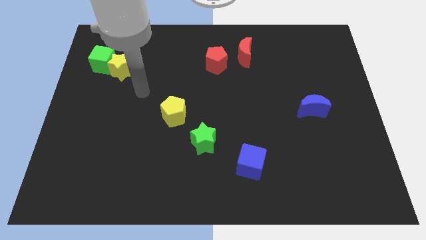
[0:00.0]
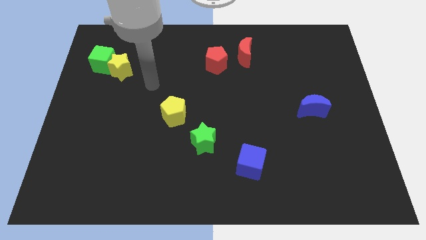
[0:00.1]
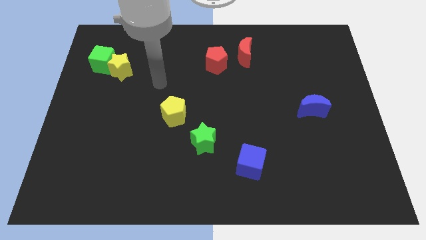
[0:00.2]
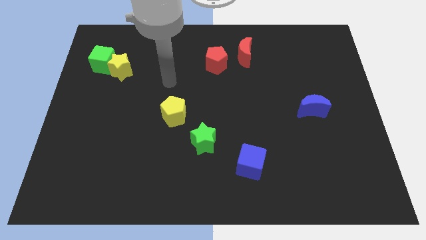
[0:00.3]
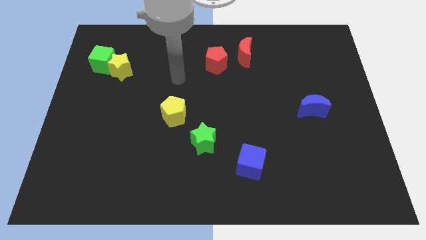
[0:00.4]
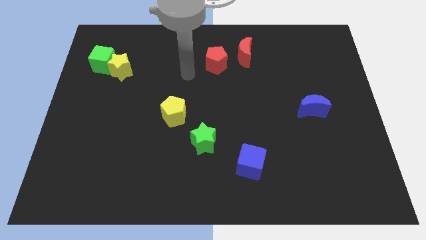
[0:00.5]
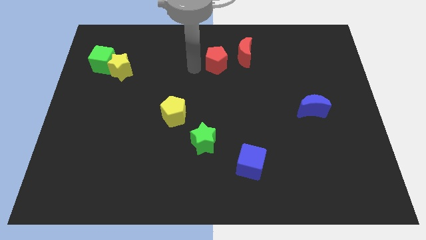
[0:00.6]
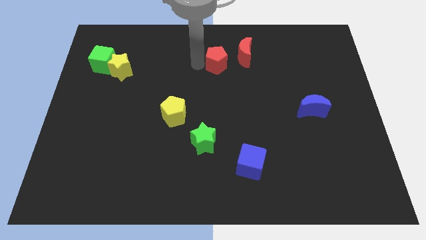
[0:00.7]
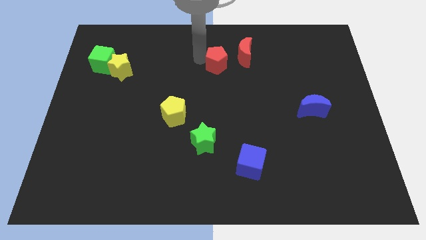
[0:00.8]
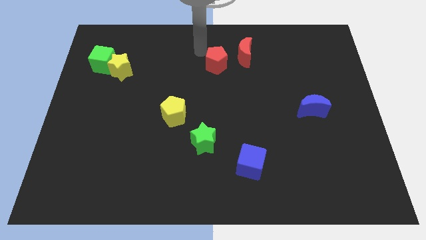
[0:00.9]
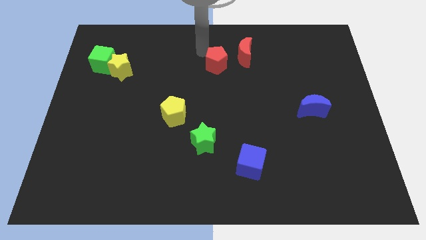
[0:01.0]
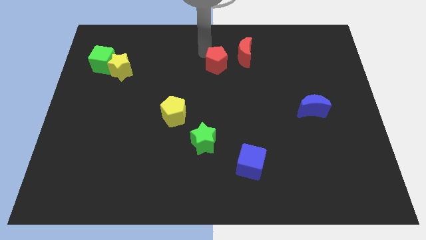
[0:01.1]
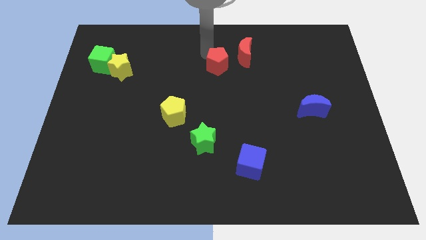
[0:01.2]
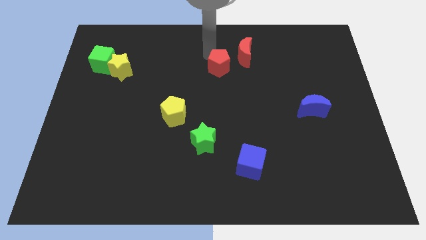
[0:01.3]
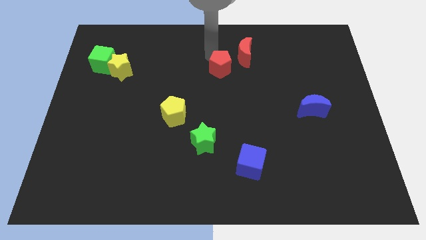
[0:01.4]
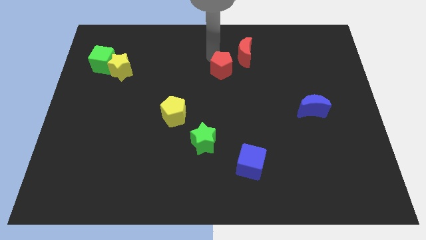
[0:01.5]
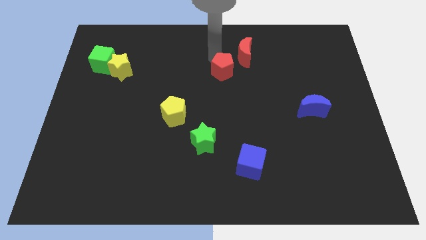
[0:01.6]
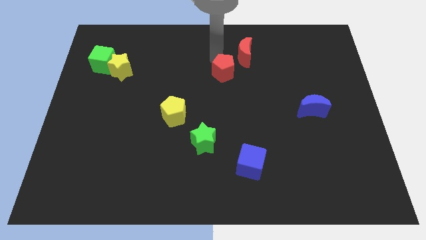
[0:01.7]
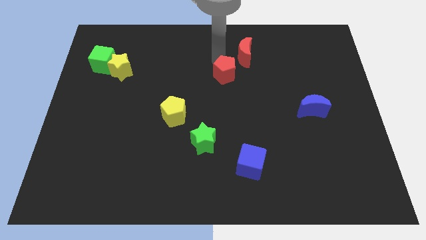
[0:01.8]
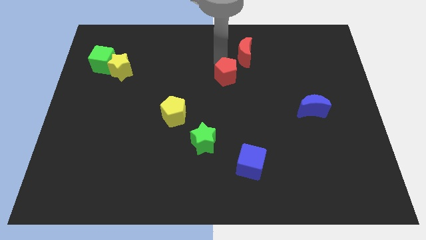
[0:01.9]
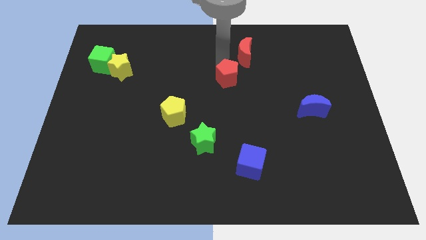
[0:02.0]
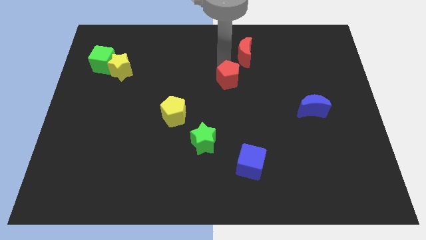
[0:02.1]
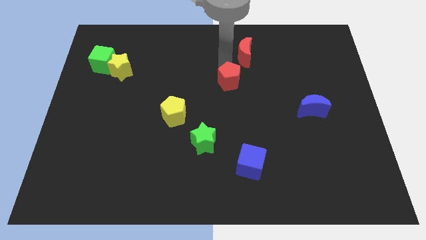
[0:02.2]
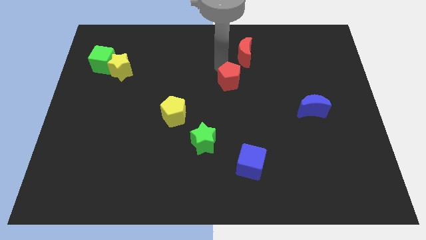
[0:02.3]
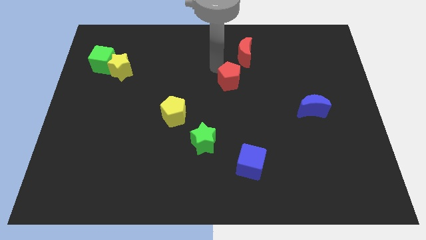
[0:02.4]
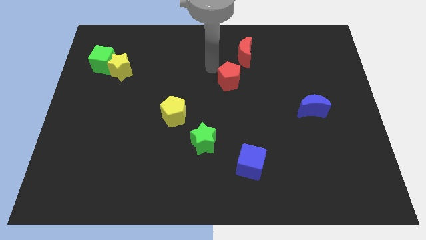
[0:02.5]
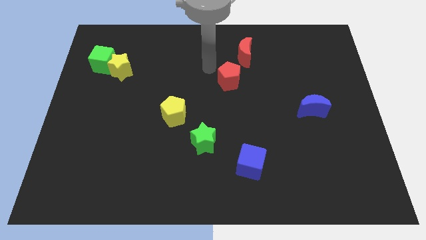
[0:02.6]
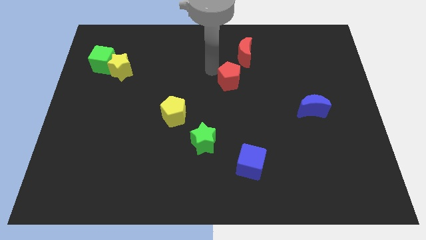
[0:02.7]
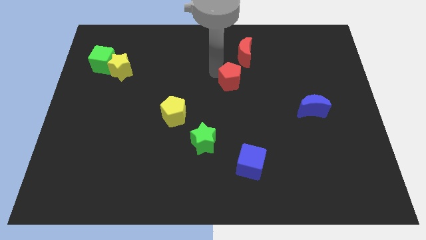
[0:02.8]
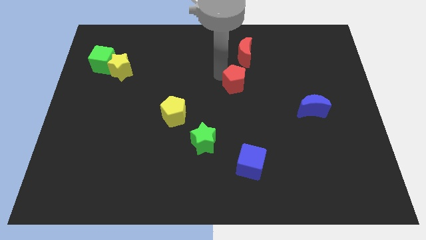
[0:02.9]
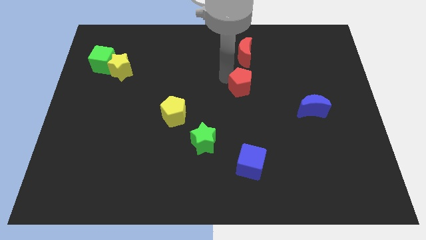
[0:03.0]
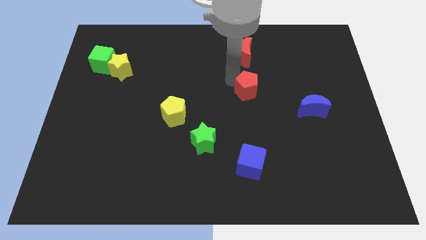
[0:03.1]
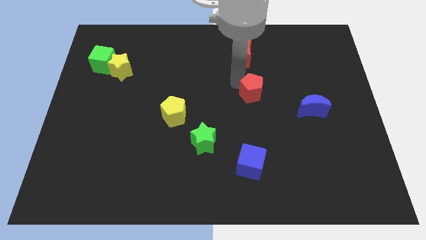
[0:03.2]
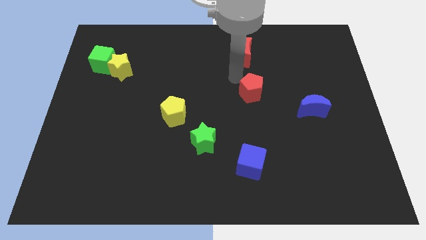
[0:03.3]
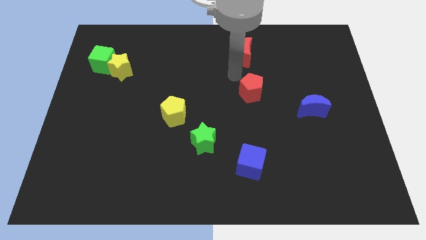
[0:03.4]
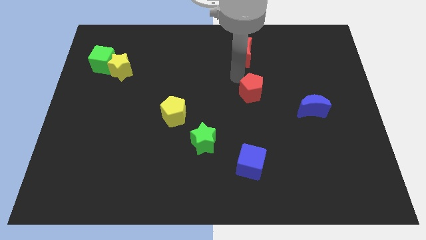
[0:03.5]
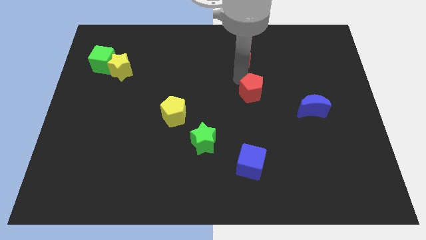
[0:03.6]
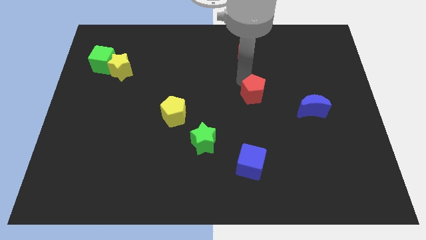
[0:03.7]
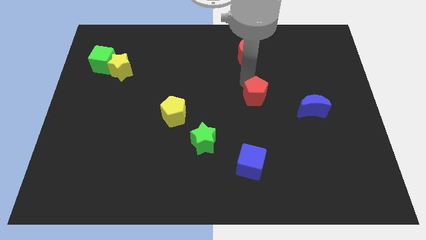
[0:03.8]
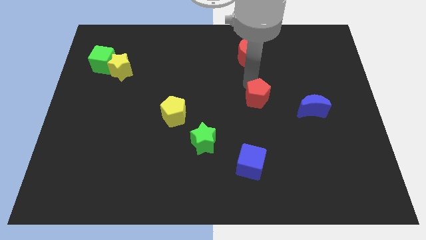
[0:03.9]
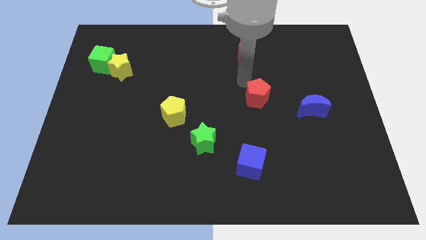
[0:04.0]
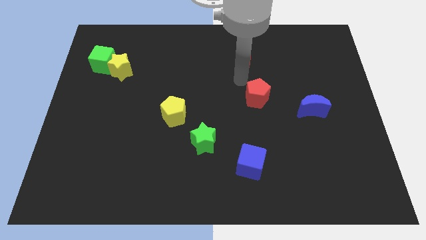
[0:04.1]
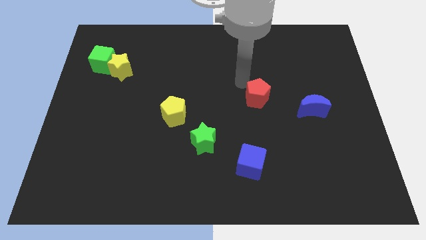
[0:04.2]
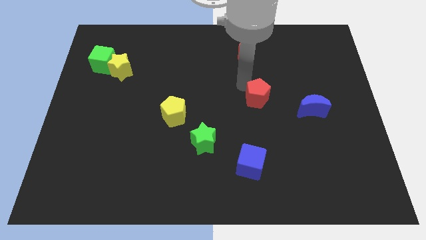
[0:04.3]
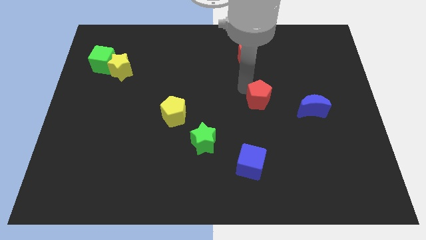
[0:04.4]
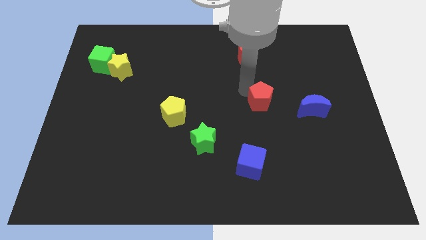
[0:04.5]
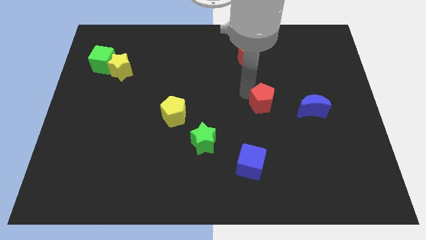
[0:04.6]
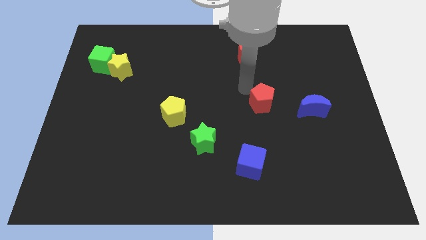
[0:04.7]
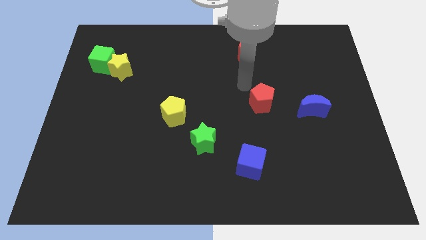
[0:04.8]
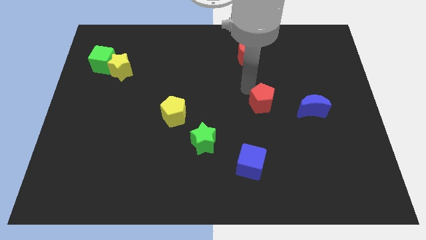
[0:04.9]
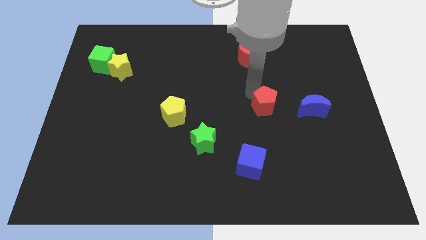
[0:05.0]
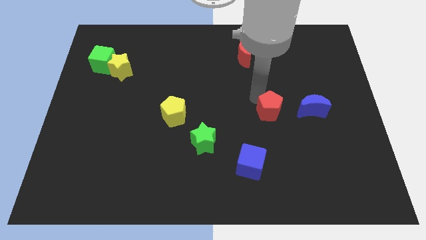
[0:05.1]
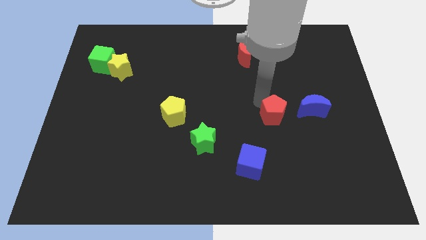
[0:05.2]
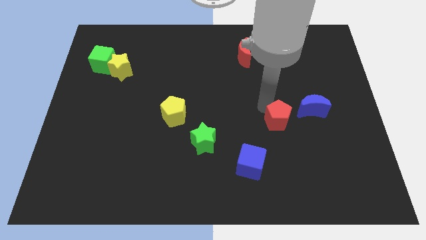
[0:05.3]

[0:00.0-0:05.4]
put the red pentagon to the bottom left of the blue moon

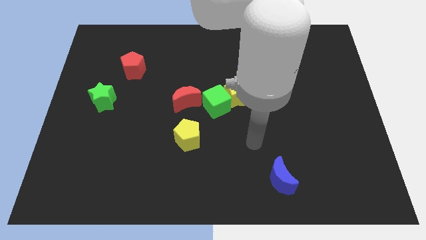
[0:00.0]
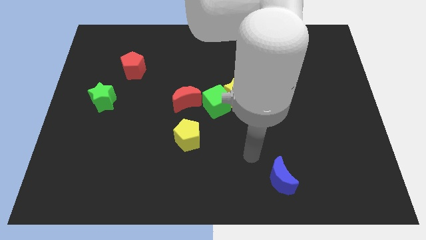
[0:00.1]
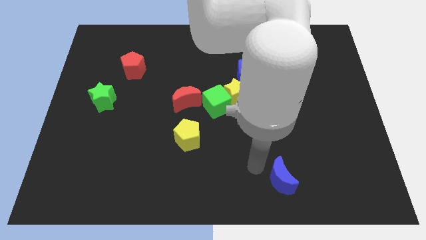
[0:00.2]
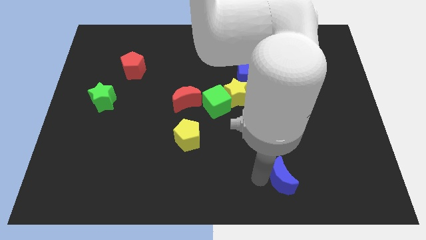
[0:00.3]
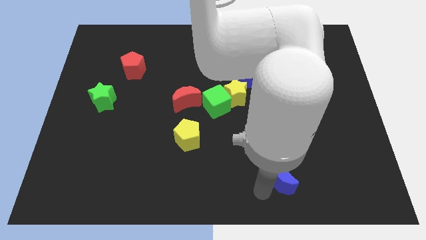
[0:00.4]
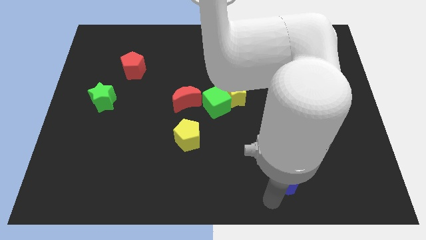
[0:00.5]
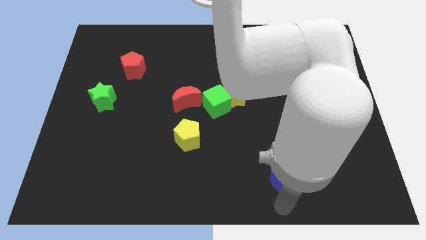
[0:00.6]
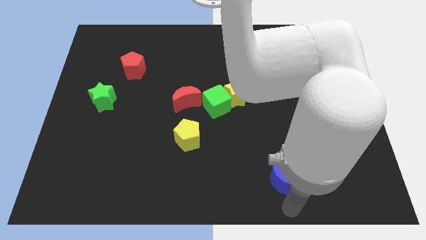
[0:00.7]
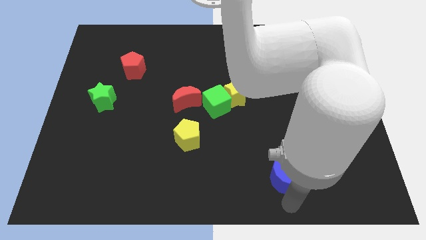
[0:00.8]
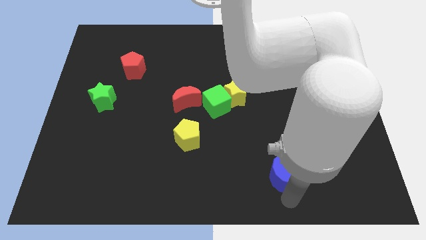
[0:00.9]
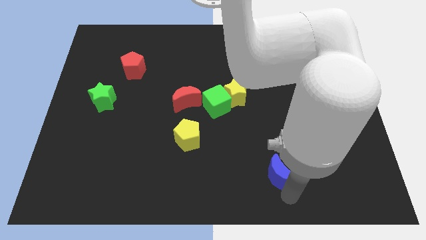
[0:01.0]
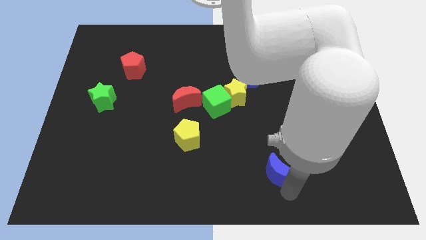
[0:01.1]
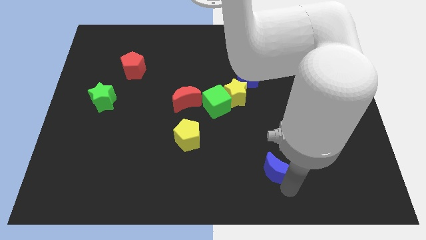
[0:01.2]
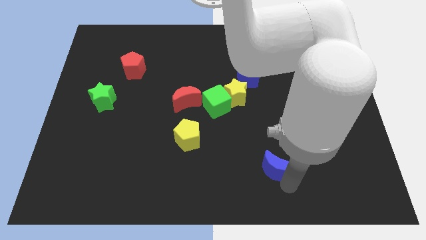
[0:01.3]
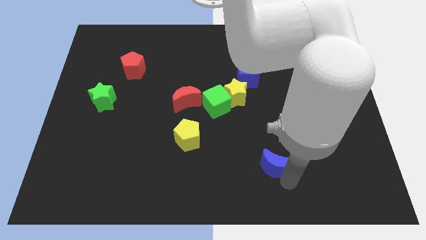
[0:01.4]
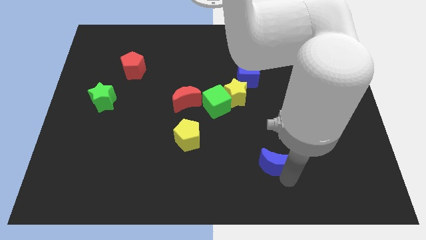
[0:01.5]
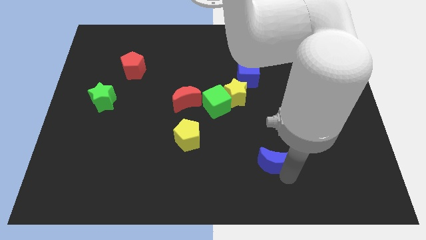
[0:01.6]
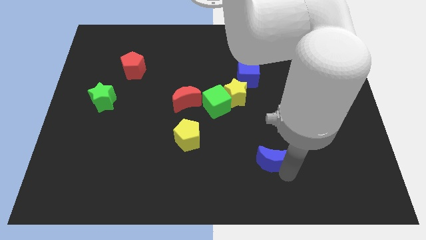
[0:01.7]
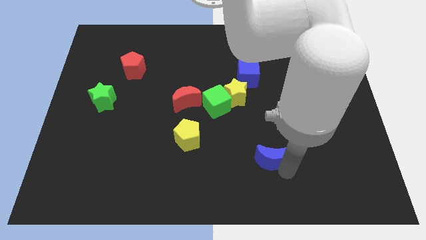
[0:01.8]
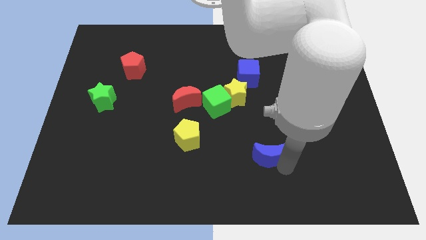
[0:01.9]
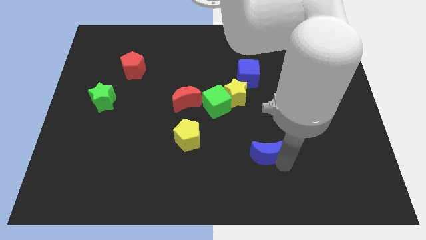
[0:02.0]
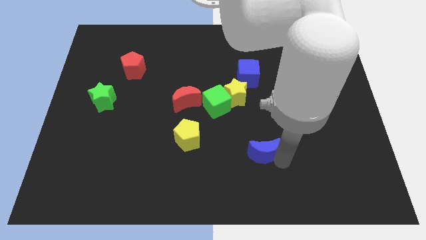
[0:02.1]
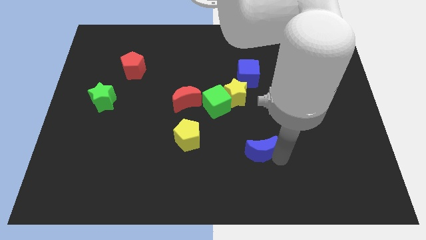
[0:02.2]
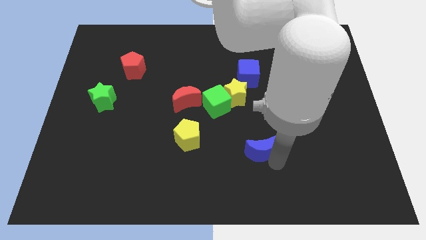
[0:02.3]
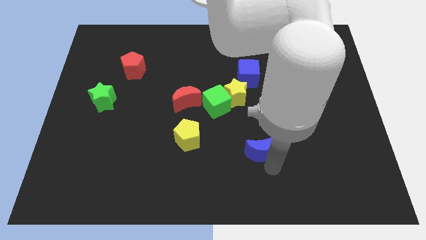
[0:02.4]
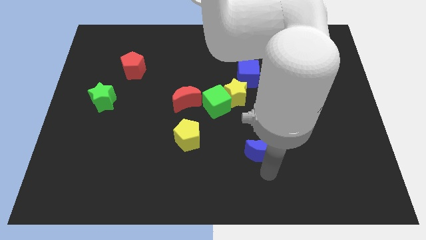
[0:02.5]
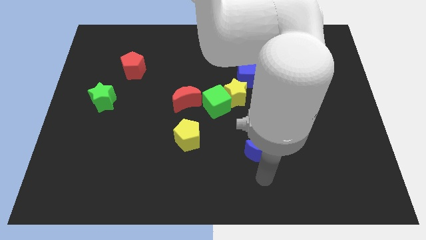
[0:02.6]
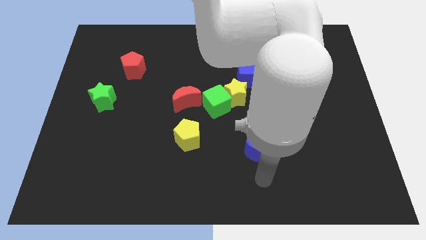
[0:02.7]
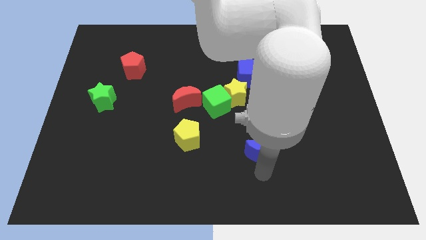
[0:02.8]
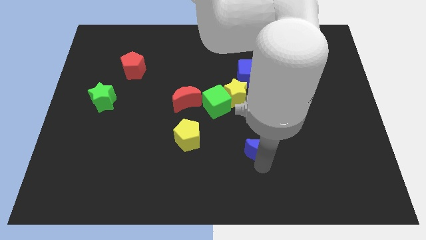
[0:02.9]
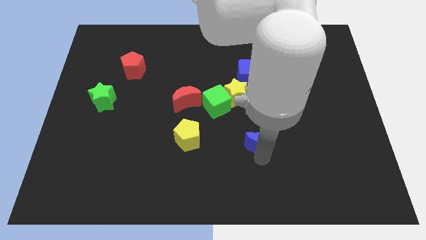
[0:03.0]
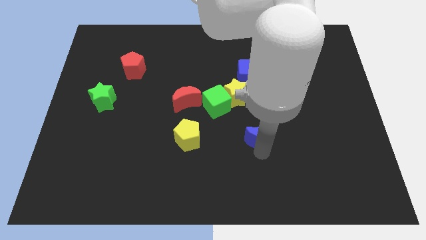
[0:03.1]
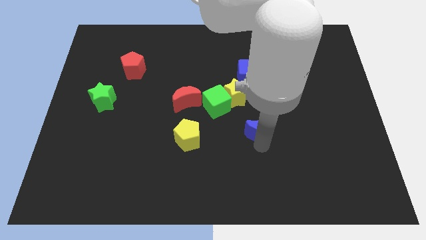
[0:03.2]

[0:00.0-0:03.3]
put the blue moon to the bottom right side of the yellow star
